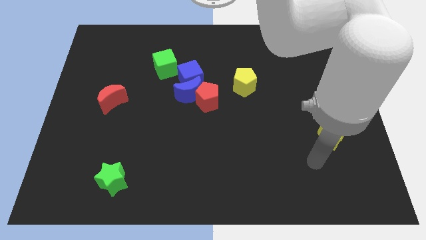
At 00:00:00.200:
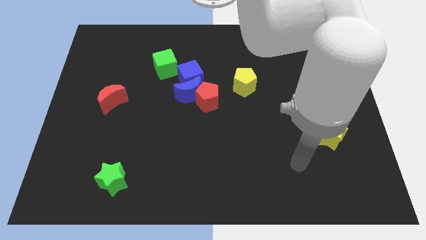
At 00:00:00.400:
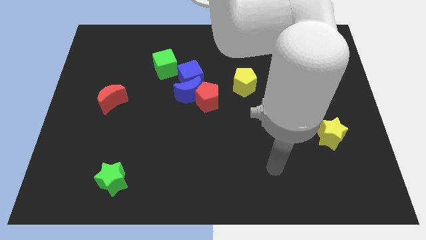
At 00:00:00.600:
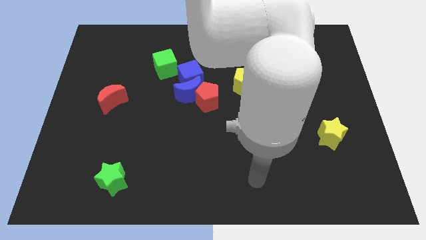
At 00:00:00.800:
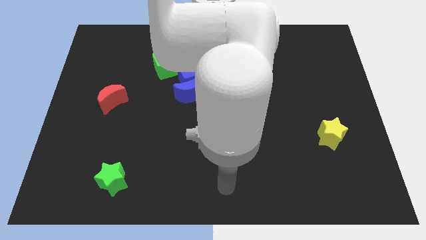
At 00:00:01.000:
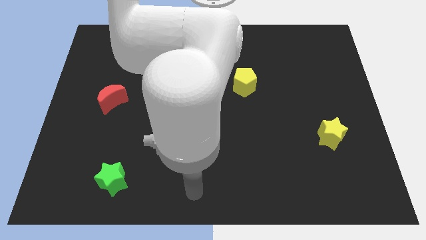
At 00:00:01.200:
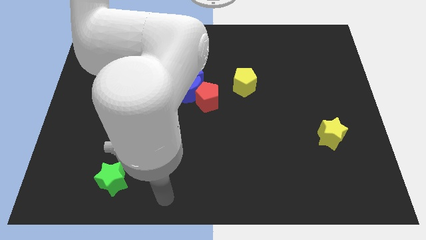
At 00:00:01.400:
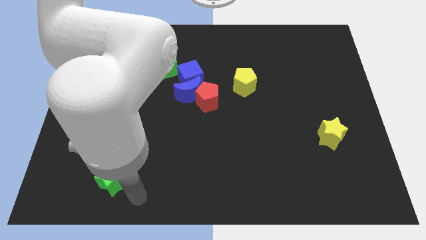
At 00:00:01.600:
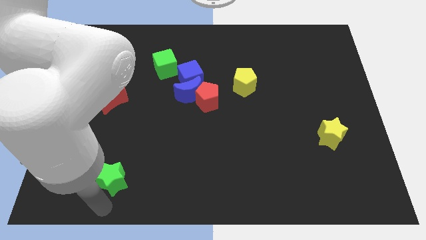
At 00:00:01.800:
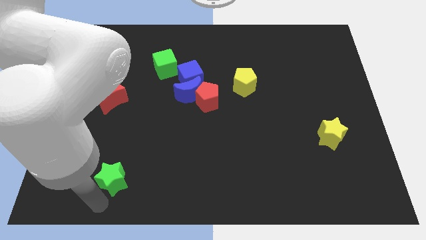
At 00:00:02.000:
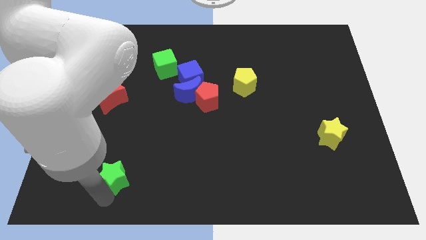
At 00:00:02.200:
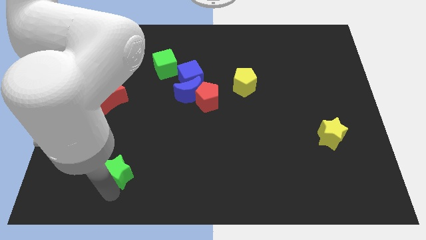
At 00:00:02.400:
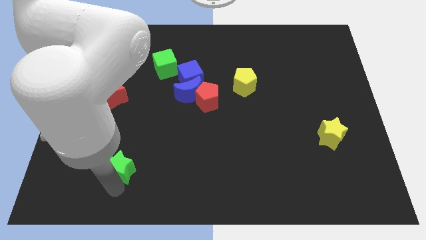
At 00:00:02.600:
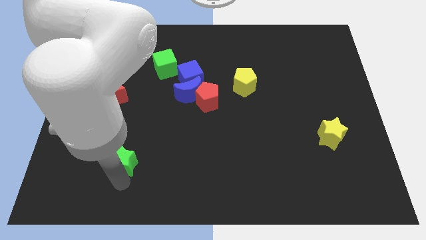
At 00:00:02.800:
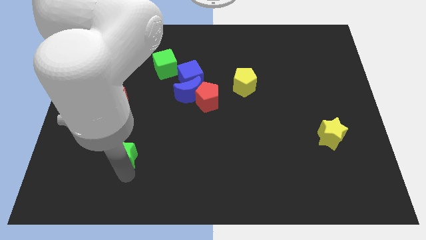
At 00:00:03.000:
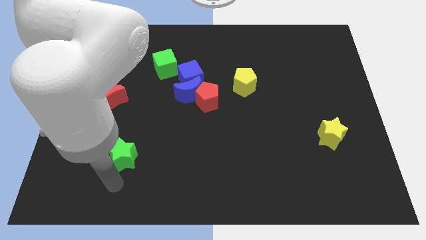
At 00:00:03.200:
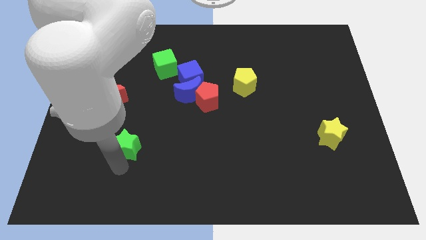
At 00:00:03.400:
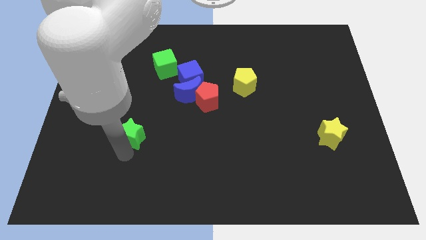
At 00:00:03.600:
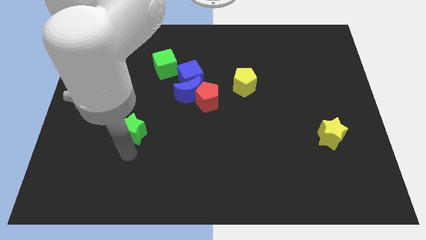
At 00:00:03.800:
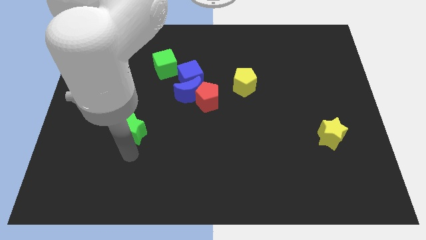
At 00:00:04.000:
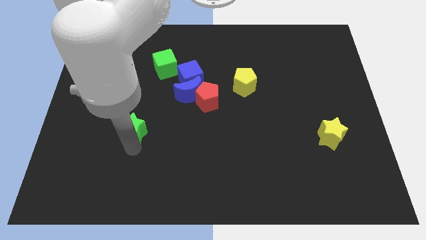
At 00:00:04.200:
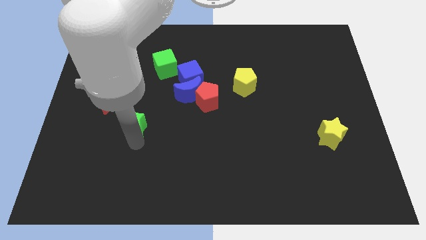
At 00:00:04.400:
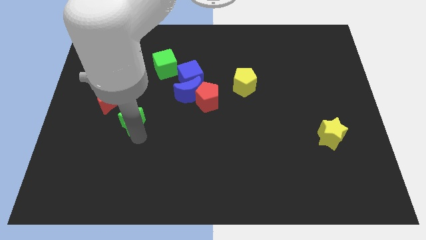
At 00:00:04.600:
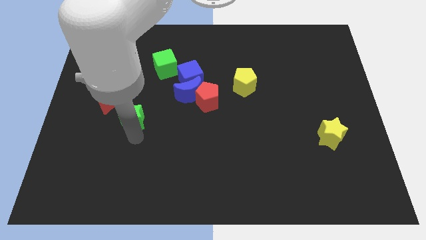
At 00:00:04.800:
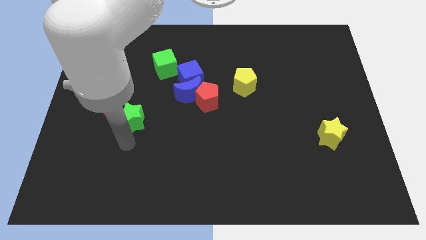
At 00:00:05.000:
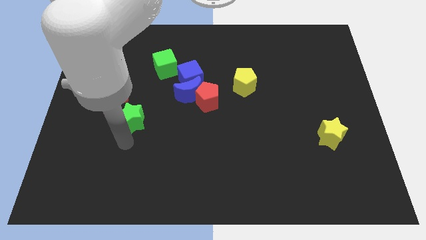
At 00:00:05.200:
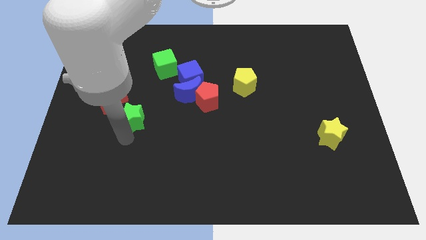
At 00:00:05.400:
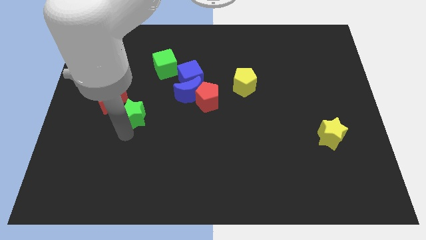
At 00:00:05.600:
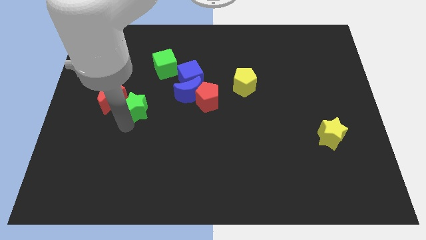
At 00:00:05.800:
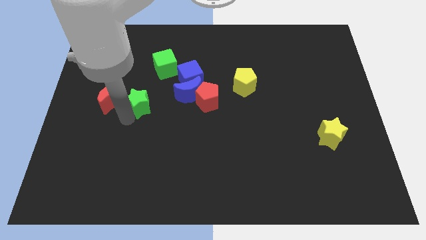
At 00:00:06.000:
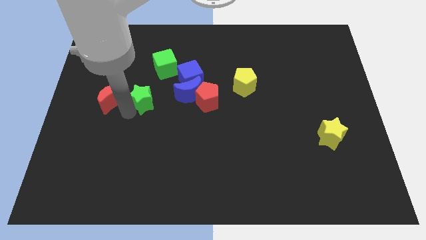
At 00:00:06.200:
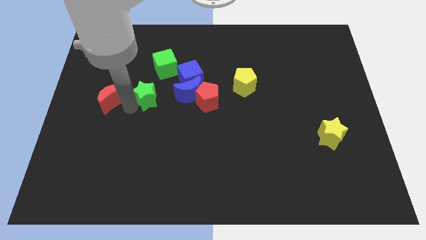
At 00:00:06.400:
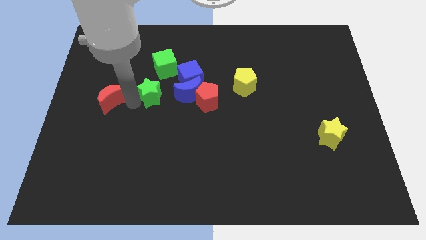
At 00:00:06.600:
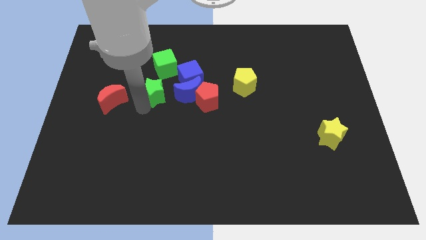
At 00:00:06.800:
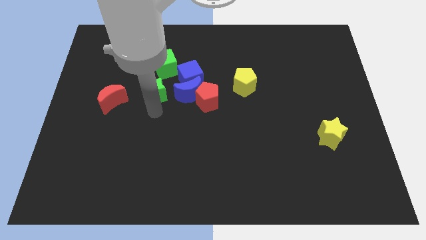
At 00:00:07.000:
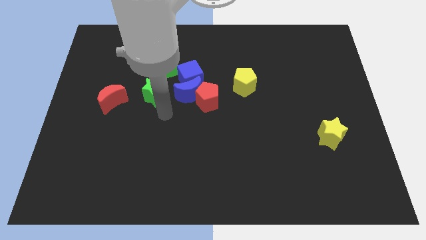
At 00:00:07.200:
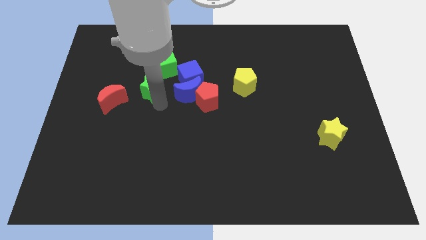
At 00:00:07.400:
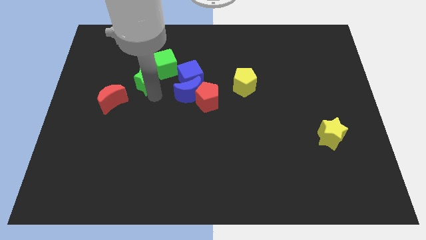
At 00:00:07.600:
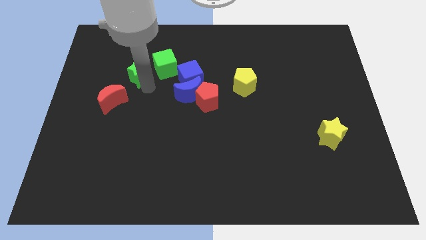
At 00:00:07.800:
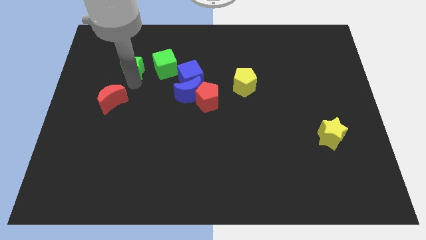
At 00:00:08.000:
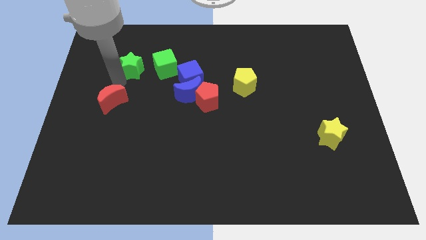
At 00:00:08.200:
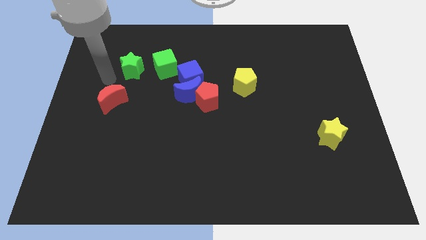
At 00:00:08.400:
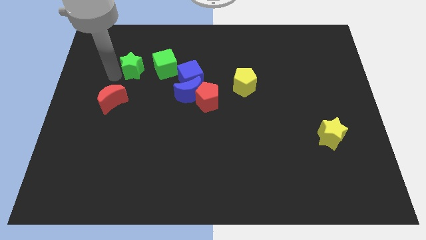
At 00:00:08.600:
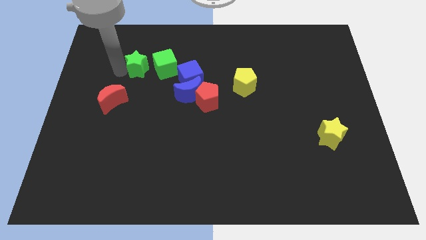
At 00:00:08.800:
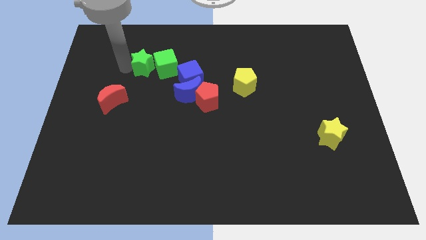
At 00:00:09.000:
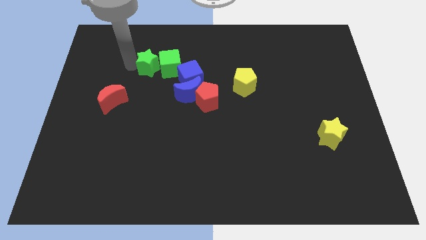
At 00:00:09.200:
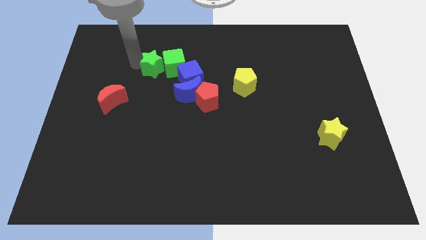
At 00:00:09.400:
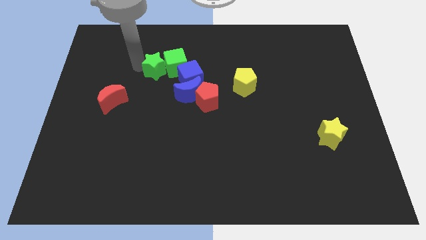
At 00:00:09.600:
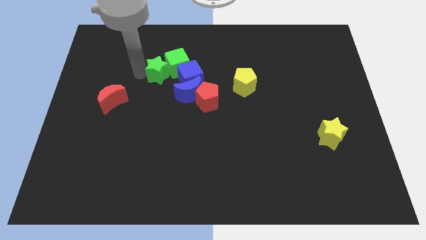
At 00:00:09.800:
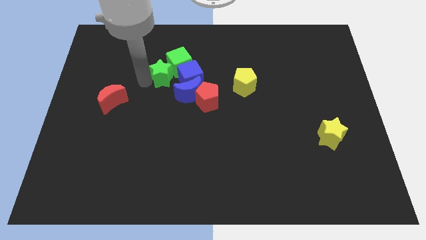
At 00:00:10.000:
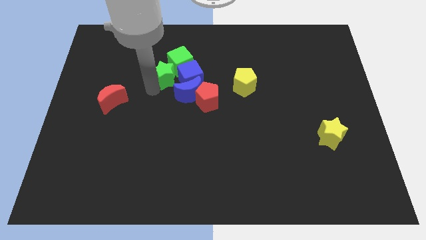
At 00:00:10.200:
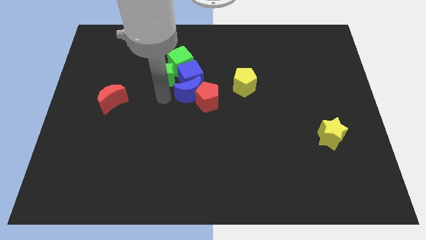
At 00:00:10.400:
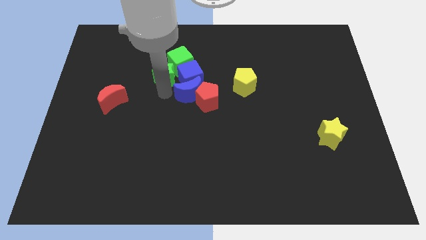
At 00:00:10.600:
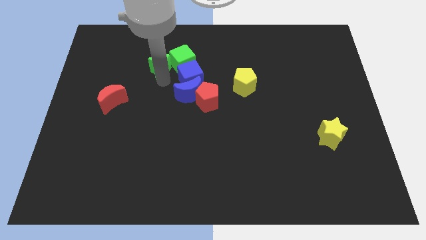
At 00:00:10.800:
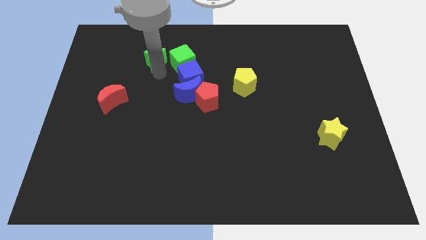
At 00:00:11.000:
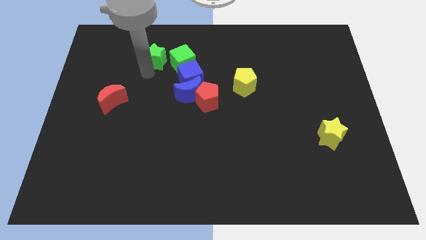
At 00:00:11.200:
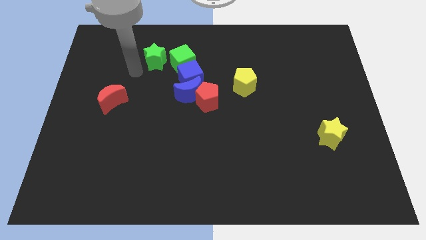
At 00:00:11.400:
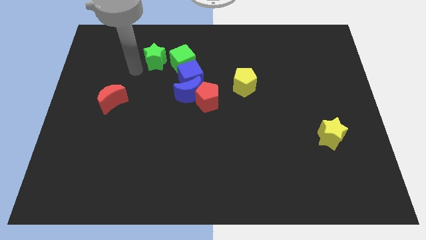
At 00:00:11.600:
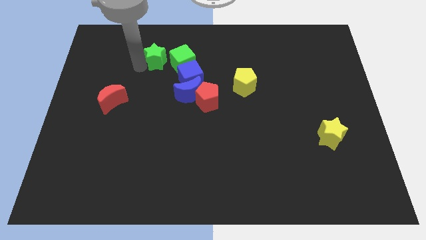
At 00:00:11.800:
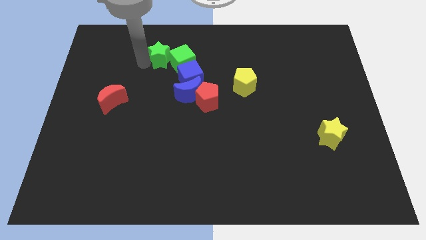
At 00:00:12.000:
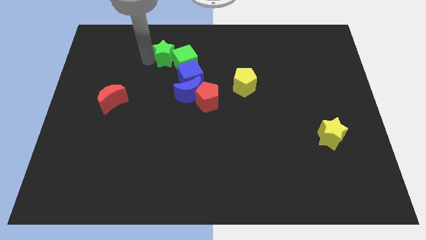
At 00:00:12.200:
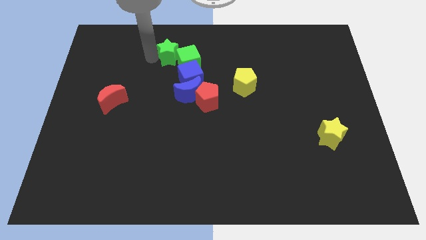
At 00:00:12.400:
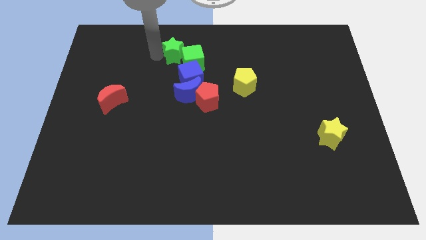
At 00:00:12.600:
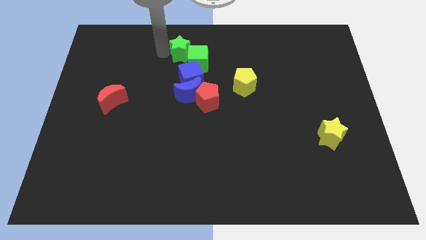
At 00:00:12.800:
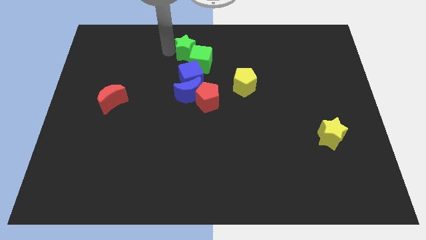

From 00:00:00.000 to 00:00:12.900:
slide the green star to the towards your base
